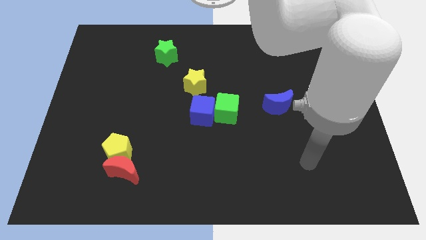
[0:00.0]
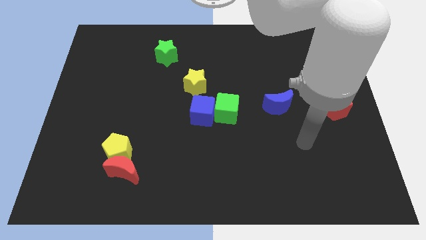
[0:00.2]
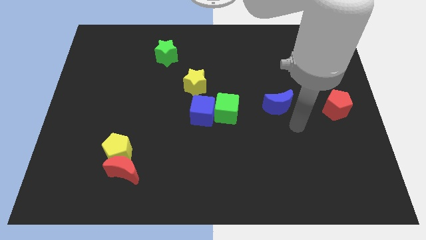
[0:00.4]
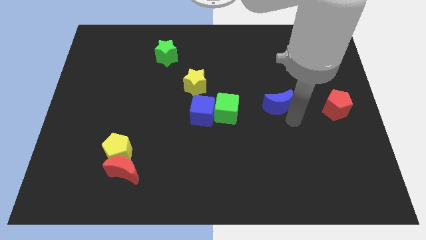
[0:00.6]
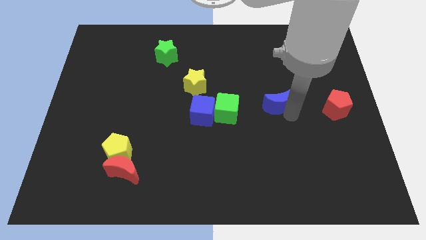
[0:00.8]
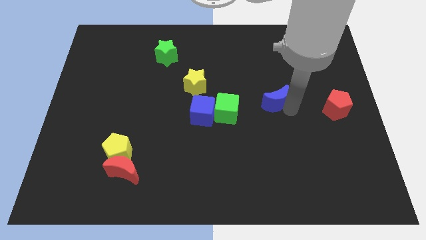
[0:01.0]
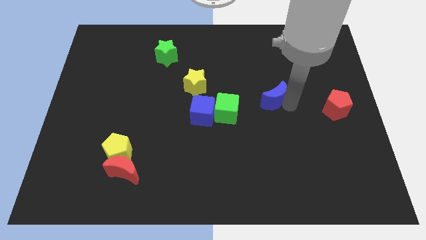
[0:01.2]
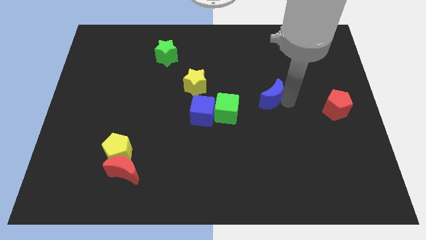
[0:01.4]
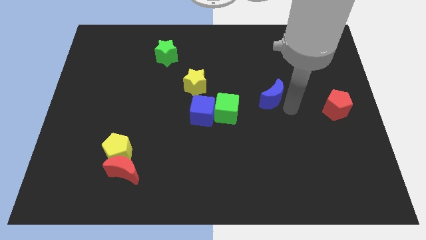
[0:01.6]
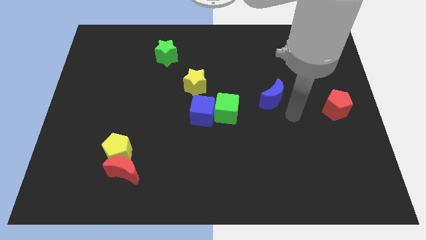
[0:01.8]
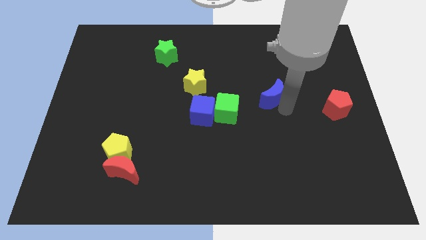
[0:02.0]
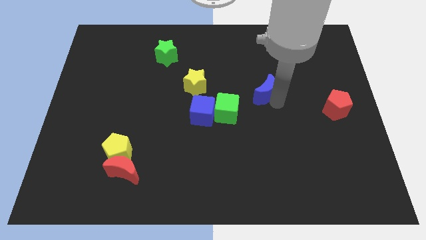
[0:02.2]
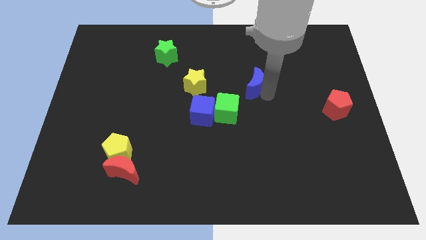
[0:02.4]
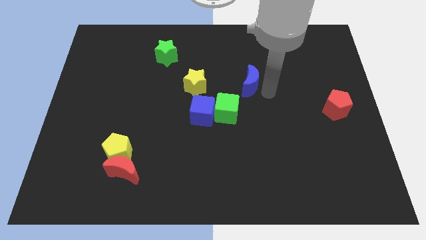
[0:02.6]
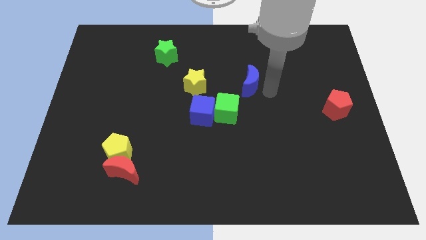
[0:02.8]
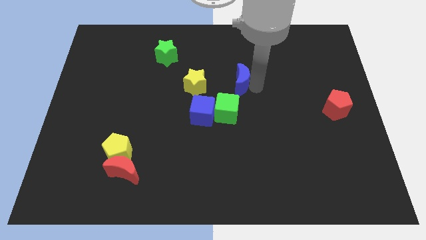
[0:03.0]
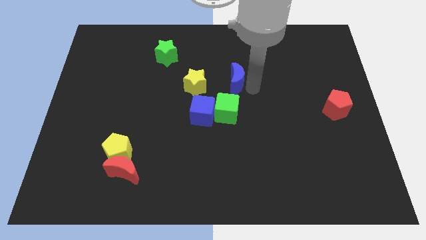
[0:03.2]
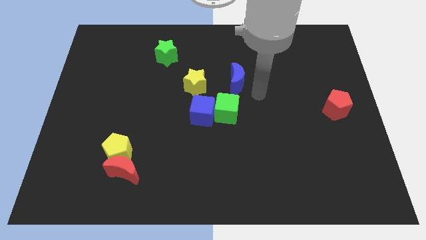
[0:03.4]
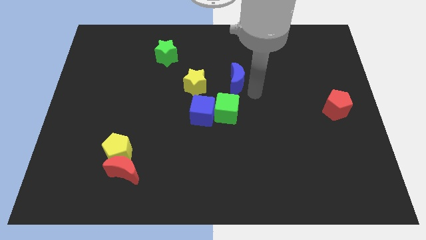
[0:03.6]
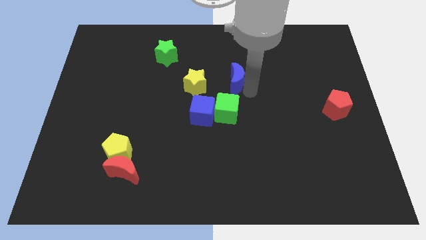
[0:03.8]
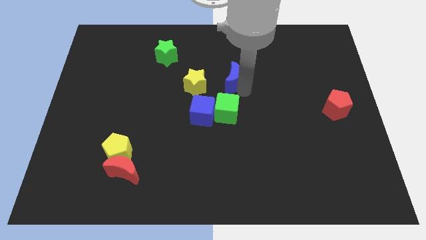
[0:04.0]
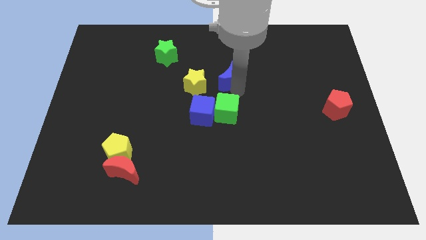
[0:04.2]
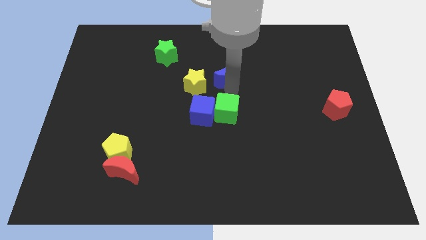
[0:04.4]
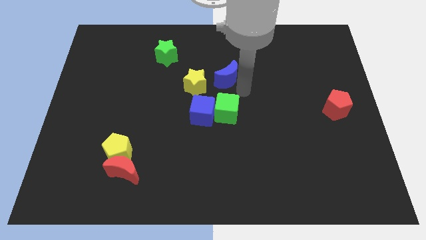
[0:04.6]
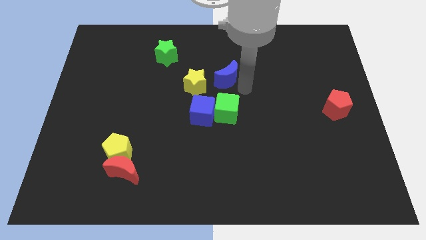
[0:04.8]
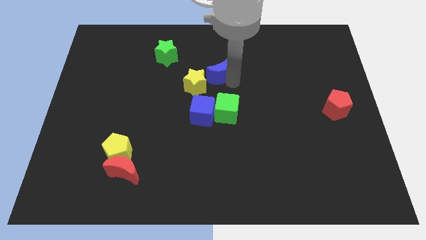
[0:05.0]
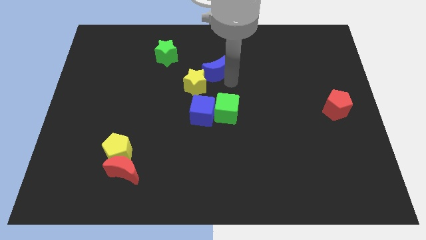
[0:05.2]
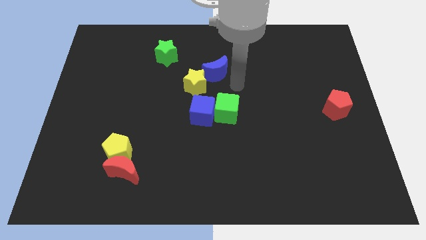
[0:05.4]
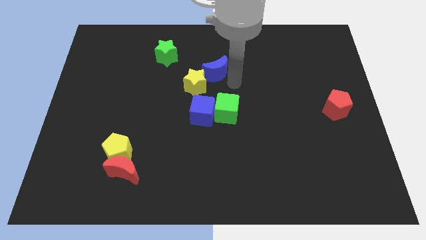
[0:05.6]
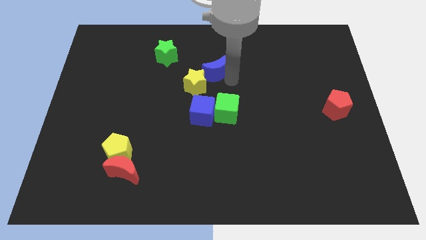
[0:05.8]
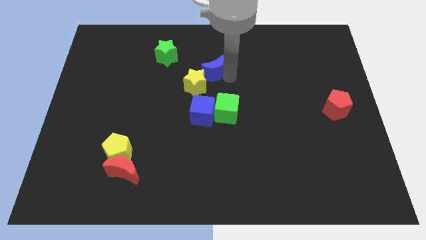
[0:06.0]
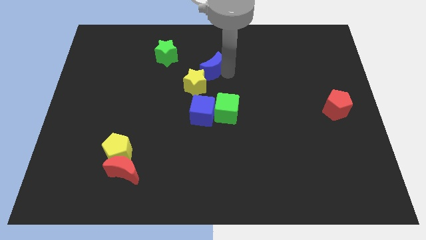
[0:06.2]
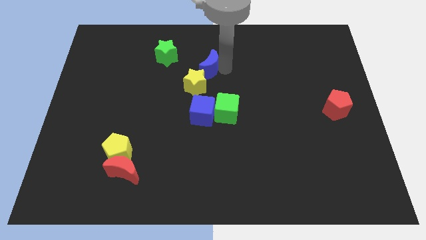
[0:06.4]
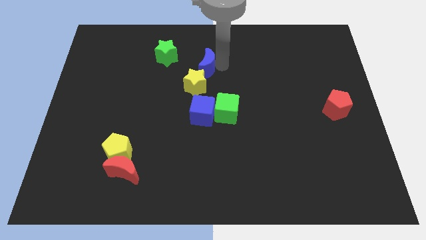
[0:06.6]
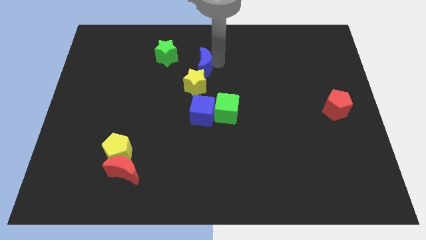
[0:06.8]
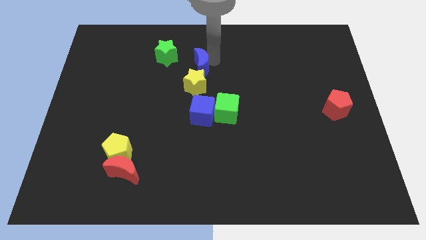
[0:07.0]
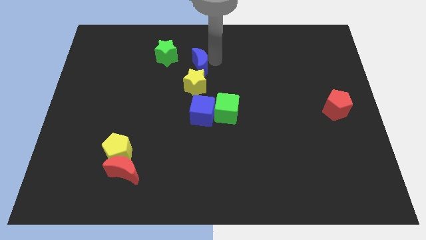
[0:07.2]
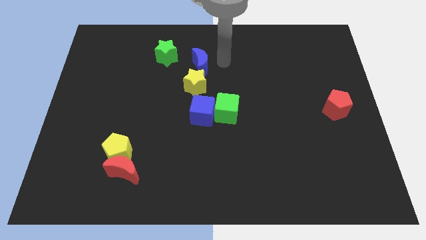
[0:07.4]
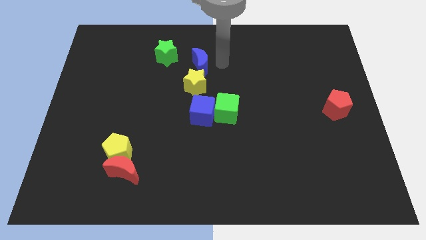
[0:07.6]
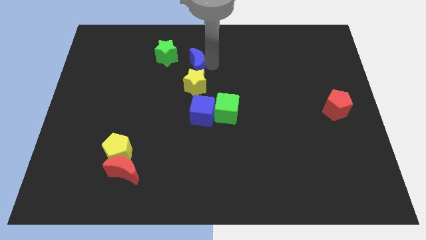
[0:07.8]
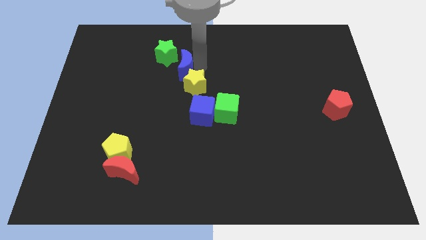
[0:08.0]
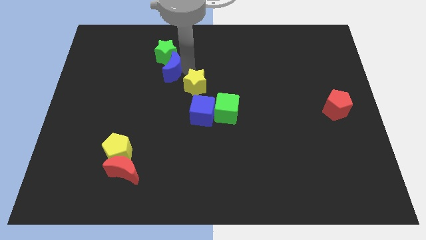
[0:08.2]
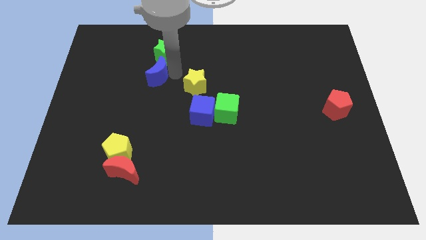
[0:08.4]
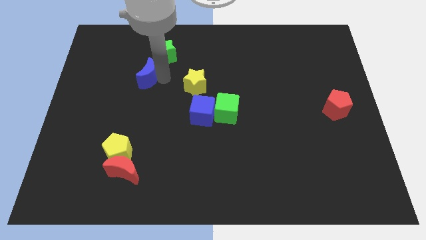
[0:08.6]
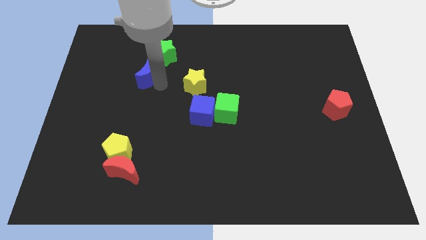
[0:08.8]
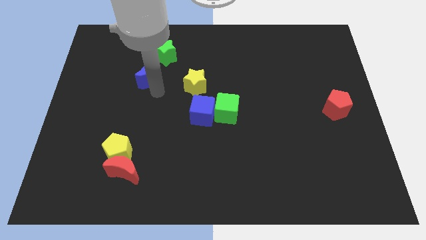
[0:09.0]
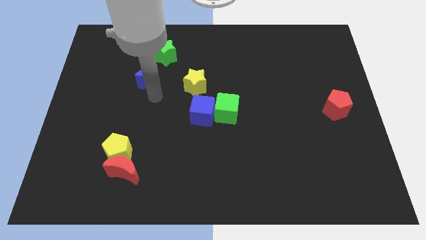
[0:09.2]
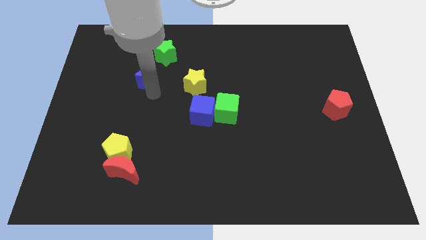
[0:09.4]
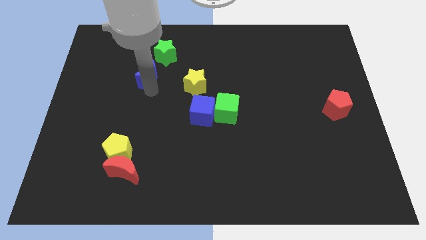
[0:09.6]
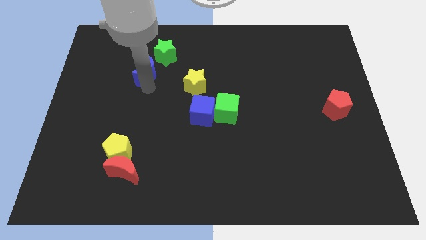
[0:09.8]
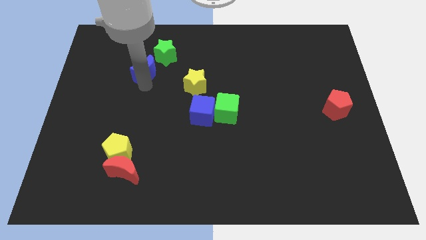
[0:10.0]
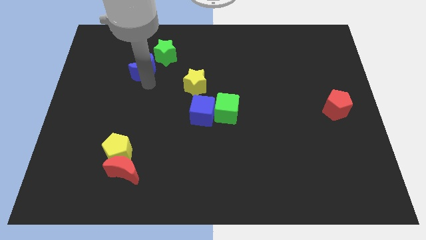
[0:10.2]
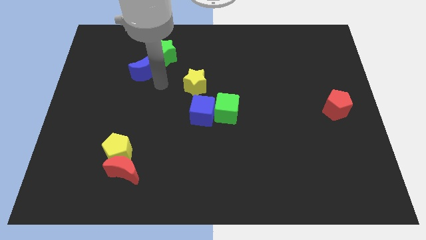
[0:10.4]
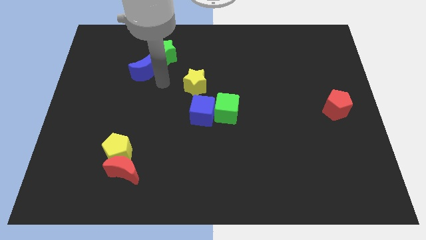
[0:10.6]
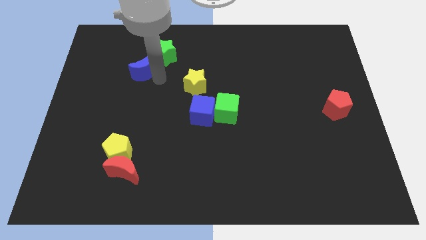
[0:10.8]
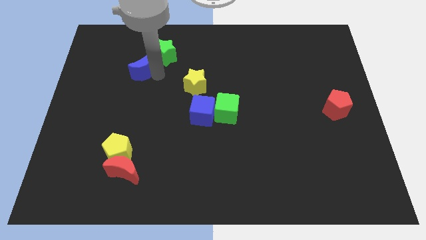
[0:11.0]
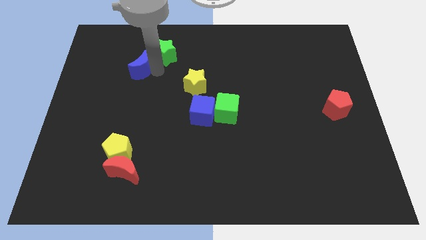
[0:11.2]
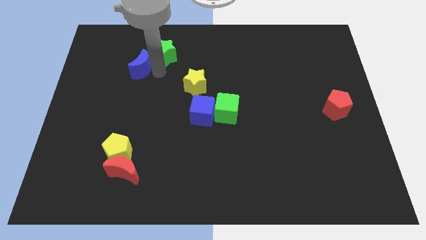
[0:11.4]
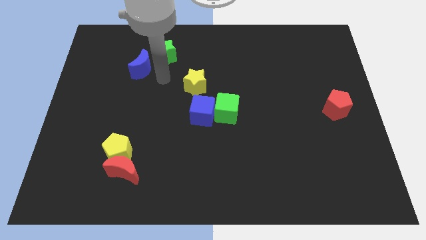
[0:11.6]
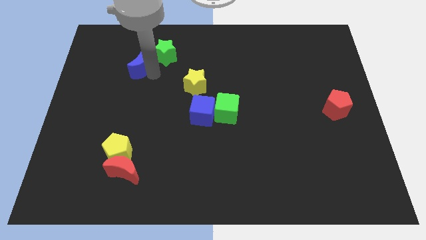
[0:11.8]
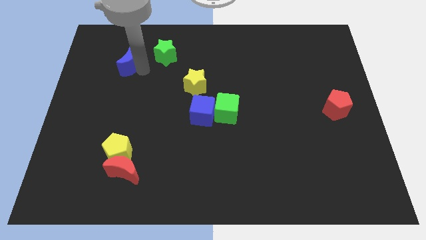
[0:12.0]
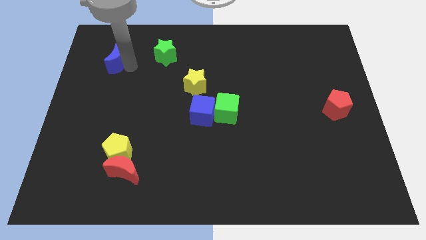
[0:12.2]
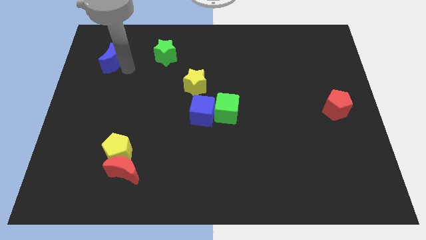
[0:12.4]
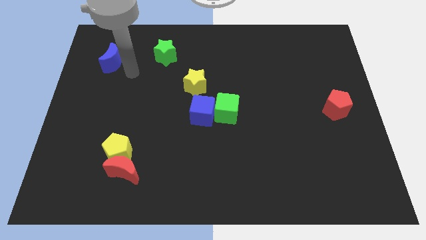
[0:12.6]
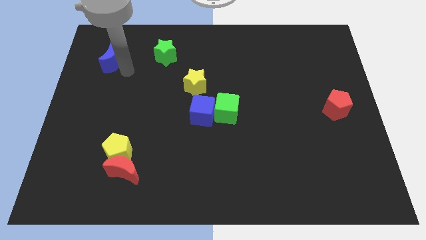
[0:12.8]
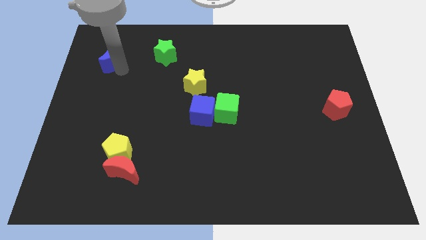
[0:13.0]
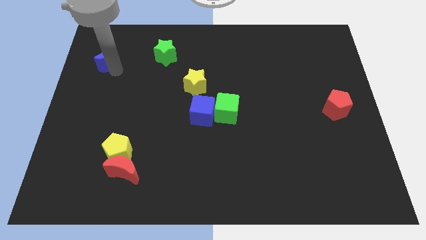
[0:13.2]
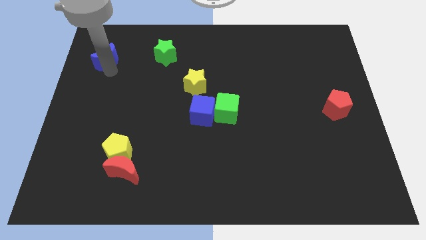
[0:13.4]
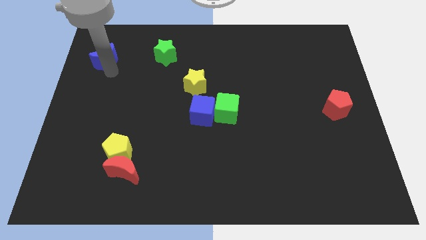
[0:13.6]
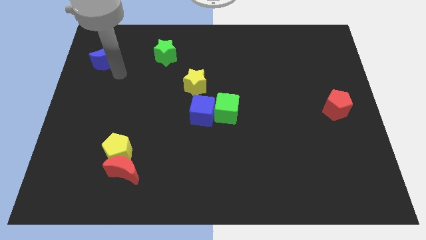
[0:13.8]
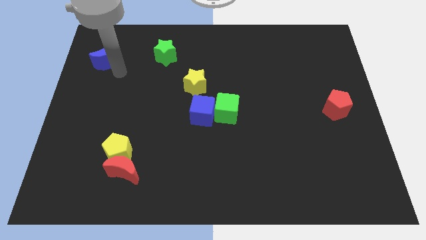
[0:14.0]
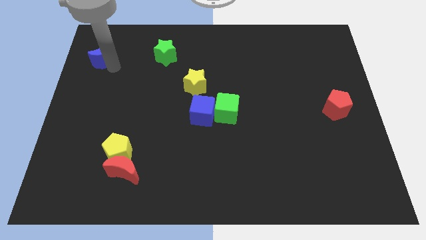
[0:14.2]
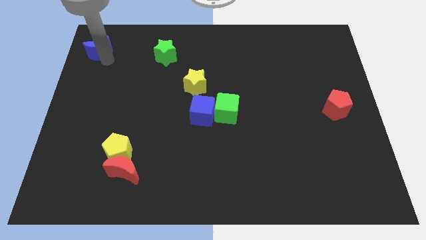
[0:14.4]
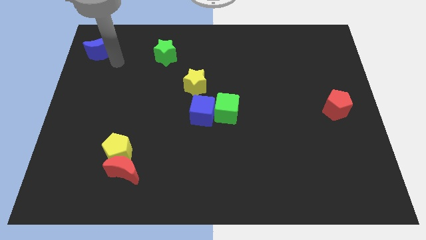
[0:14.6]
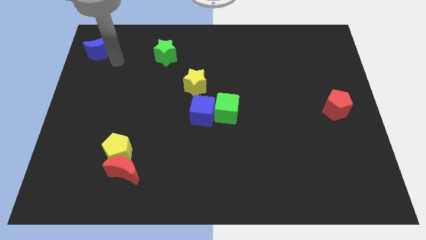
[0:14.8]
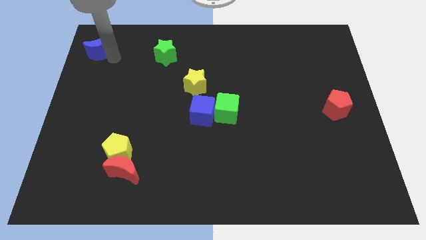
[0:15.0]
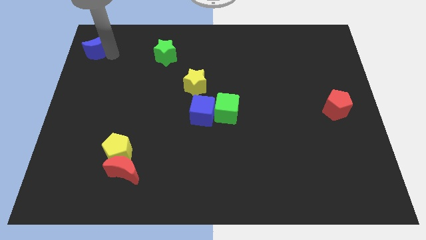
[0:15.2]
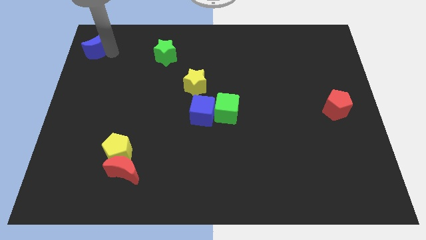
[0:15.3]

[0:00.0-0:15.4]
move the blue moon to the top left corner

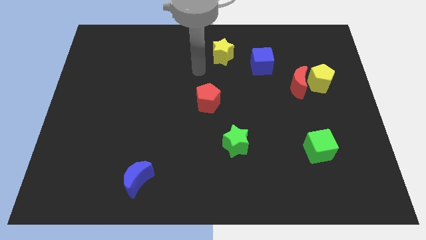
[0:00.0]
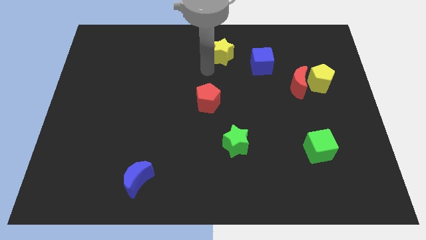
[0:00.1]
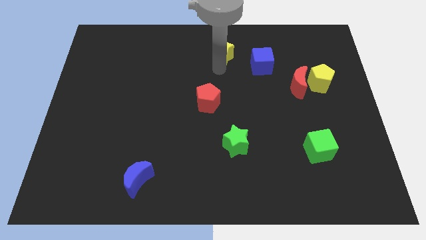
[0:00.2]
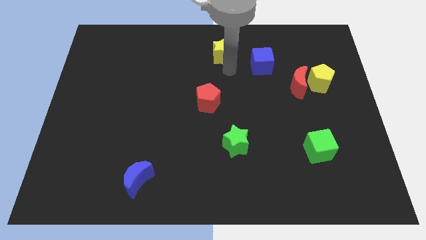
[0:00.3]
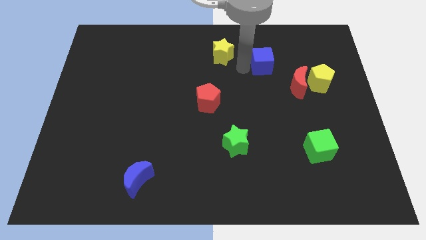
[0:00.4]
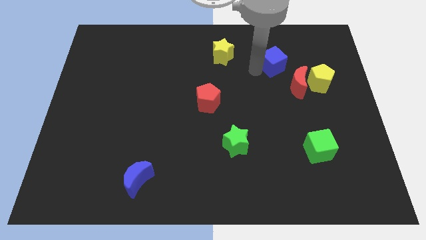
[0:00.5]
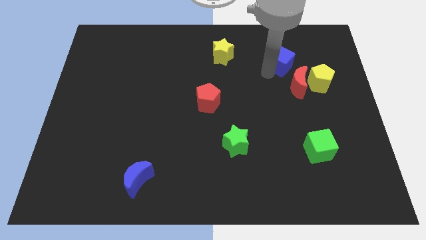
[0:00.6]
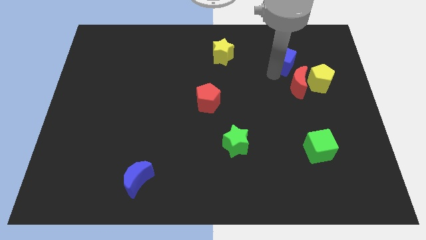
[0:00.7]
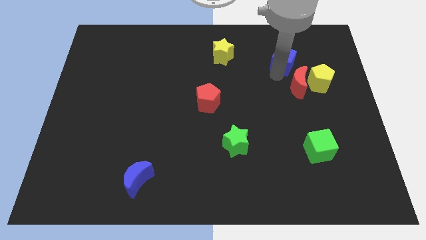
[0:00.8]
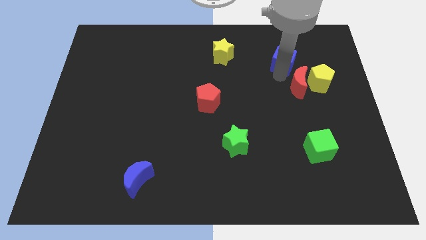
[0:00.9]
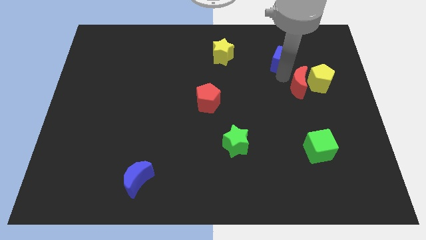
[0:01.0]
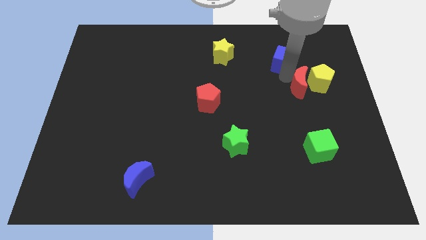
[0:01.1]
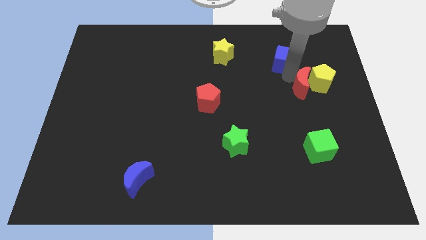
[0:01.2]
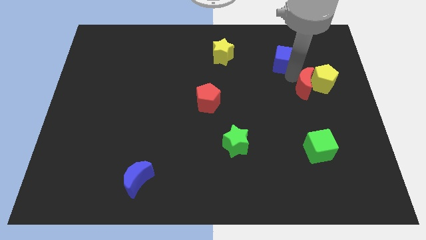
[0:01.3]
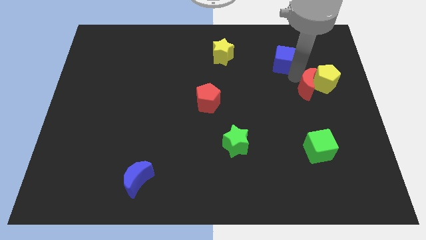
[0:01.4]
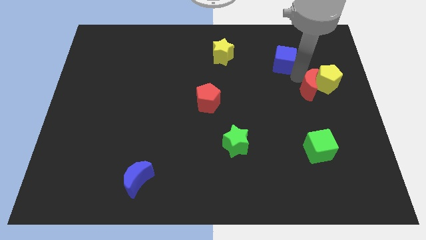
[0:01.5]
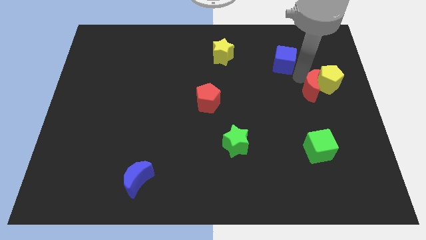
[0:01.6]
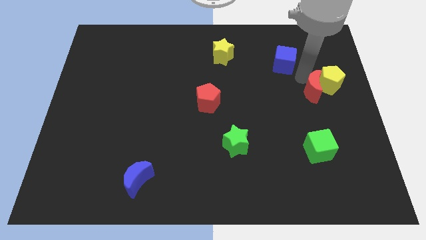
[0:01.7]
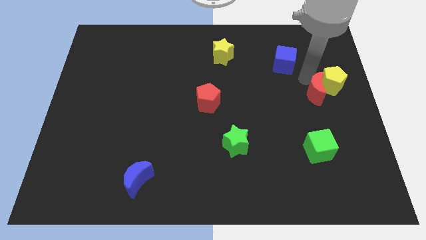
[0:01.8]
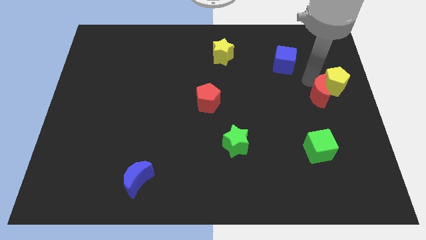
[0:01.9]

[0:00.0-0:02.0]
slide the red moon to the center right
